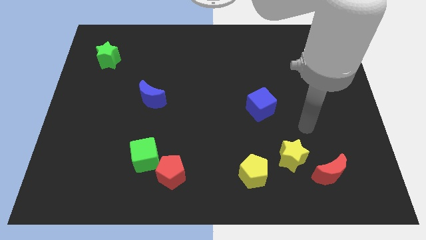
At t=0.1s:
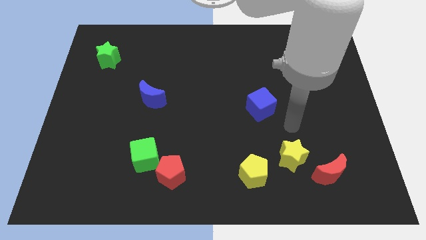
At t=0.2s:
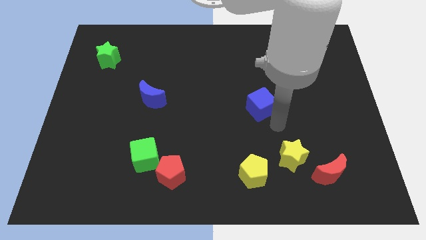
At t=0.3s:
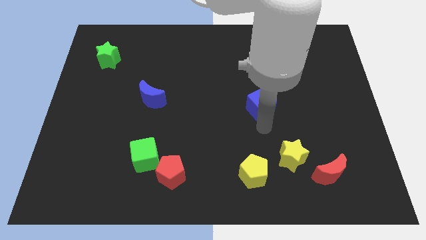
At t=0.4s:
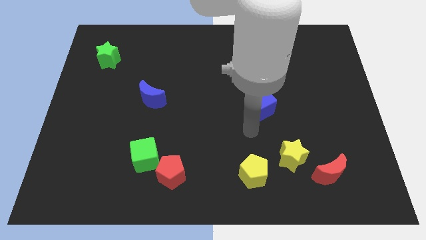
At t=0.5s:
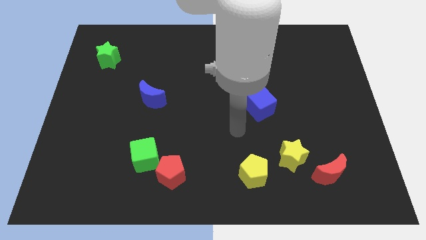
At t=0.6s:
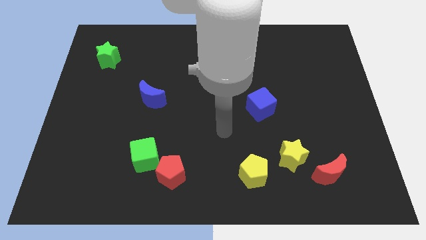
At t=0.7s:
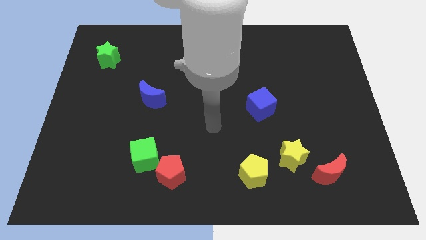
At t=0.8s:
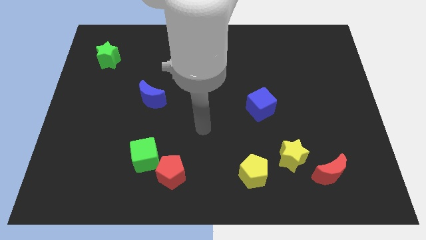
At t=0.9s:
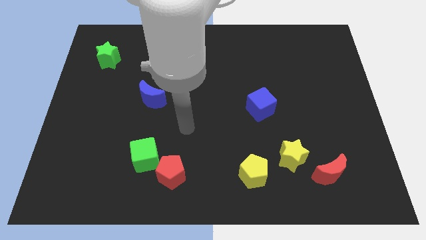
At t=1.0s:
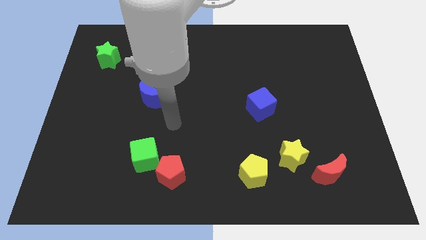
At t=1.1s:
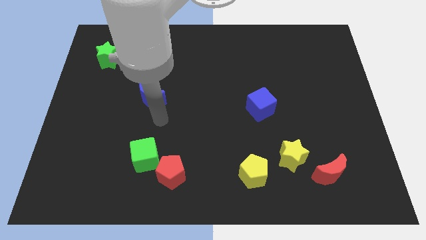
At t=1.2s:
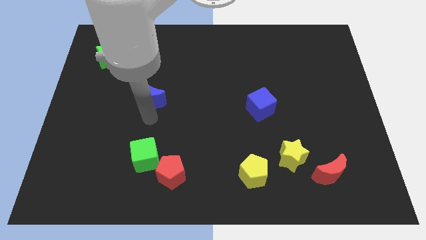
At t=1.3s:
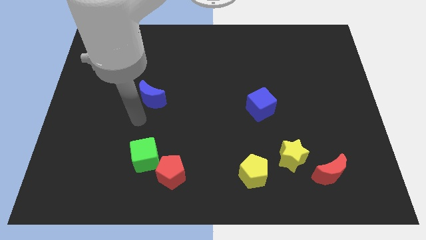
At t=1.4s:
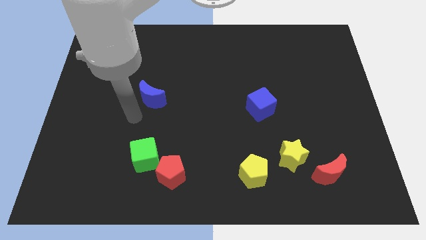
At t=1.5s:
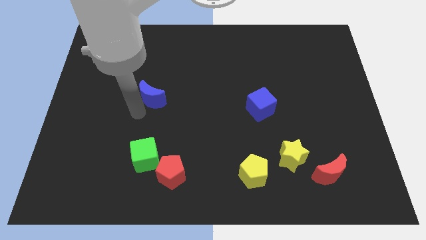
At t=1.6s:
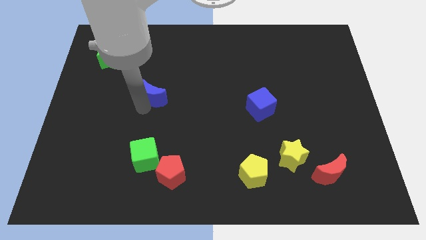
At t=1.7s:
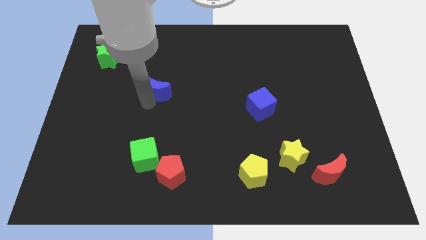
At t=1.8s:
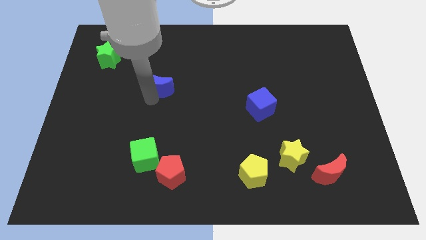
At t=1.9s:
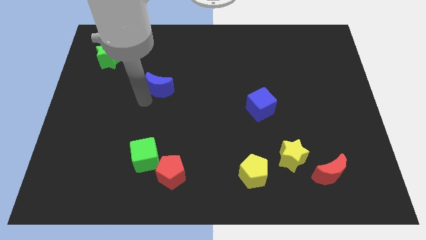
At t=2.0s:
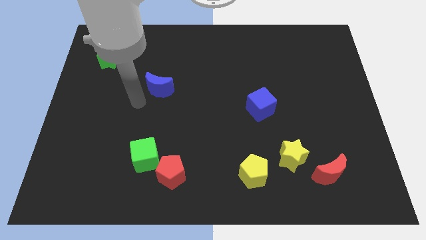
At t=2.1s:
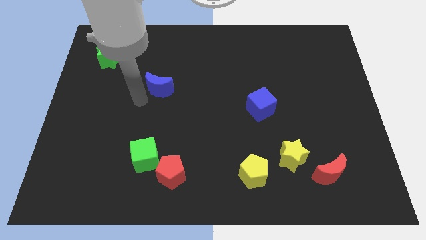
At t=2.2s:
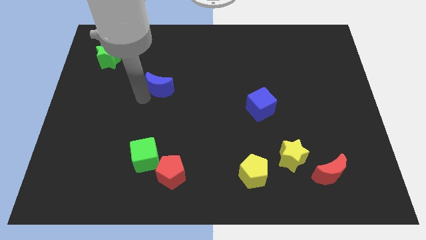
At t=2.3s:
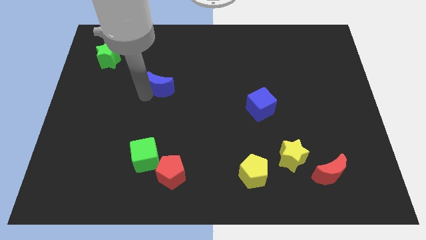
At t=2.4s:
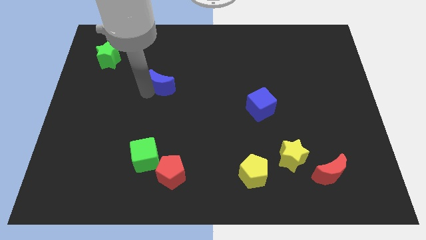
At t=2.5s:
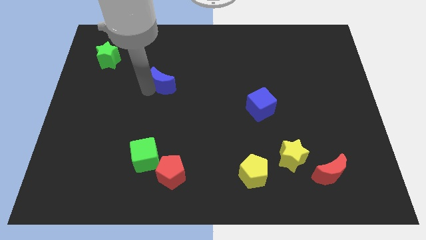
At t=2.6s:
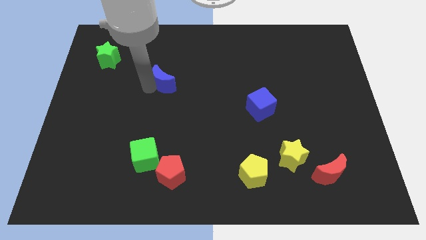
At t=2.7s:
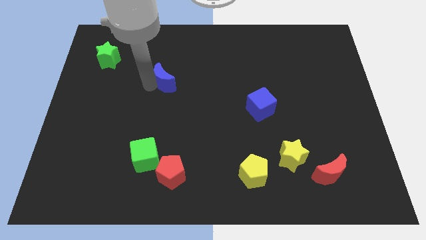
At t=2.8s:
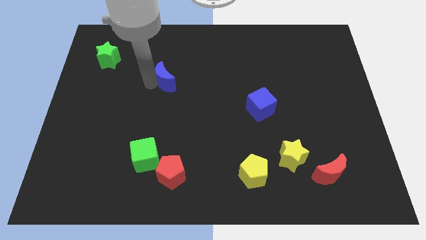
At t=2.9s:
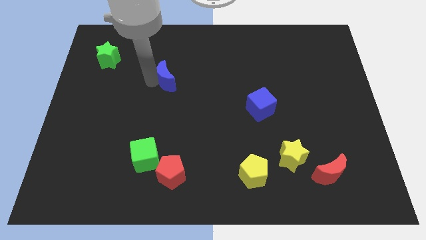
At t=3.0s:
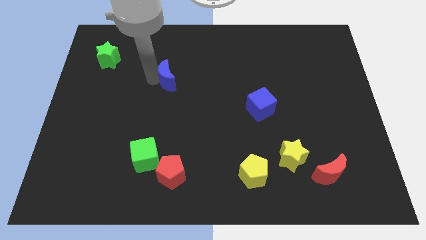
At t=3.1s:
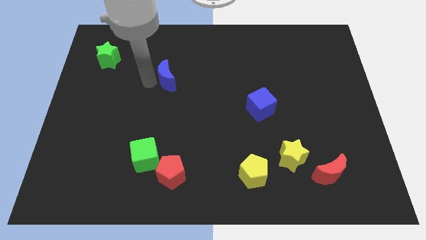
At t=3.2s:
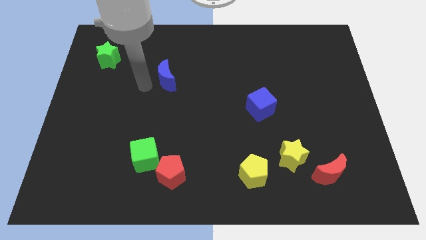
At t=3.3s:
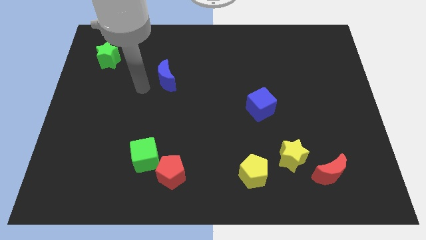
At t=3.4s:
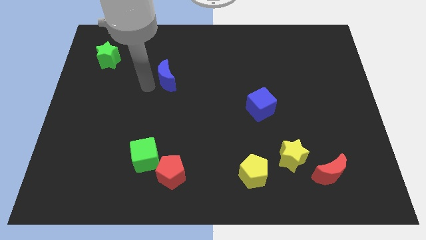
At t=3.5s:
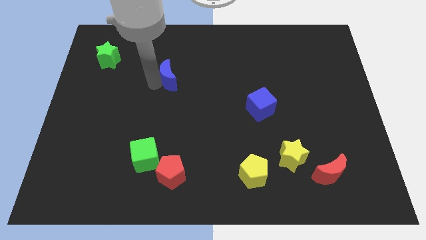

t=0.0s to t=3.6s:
slightly push the blue moon diagonally upwards and right

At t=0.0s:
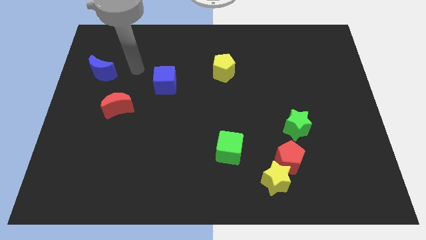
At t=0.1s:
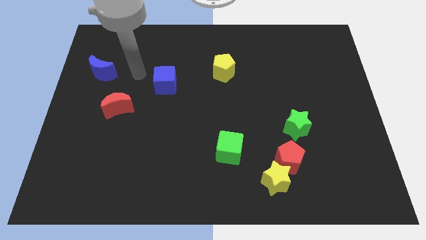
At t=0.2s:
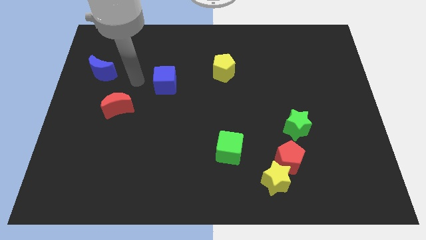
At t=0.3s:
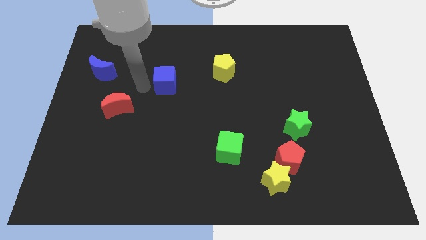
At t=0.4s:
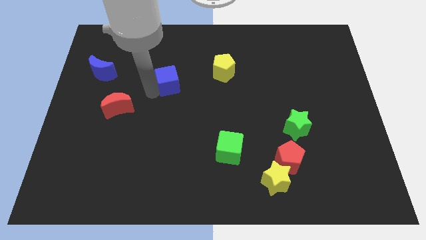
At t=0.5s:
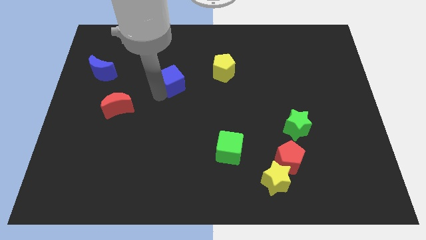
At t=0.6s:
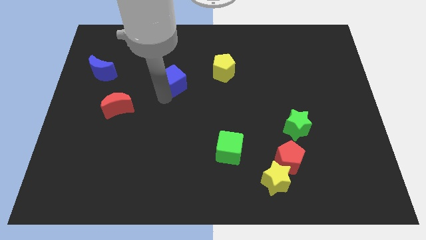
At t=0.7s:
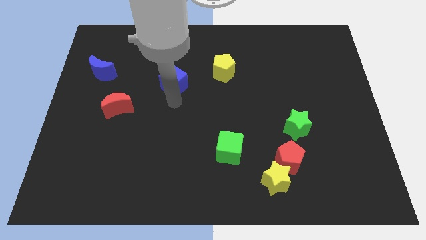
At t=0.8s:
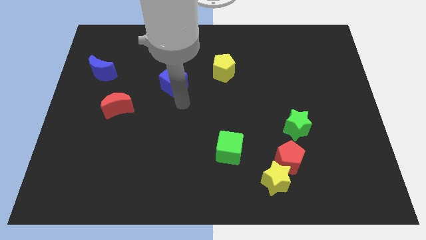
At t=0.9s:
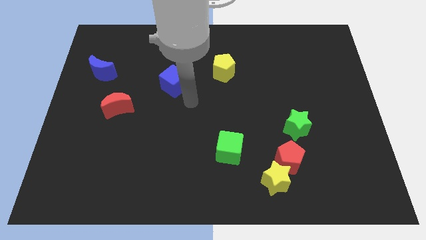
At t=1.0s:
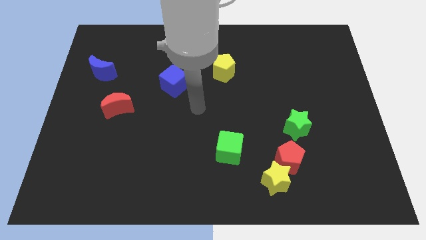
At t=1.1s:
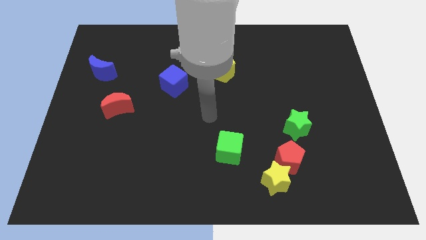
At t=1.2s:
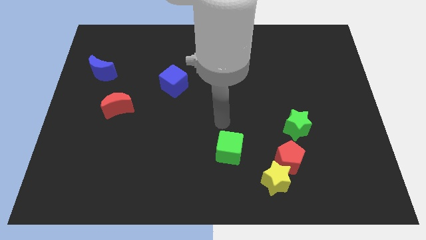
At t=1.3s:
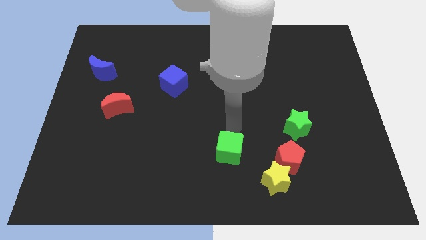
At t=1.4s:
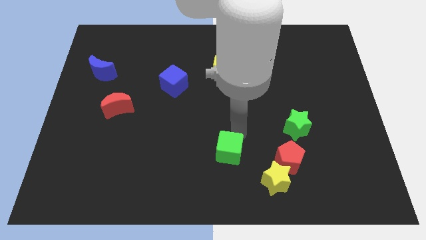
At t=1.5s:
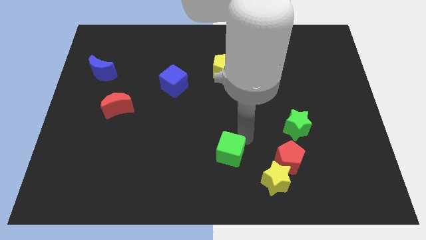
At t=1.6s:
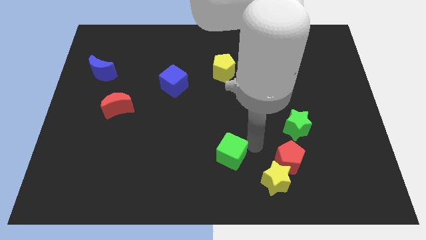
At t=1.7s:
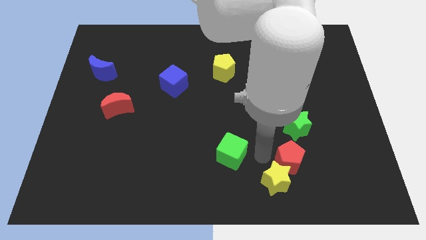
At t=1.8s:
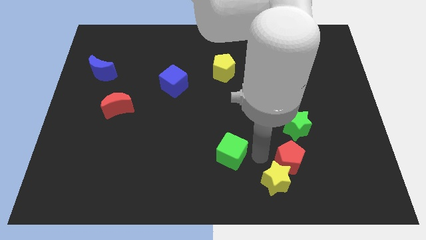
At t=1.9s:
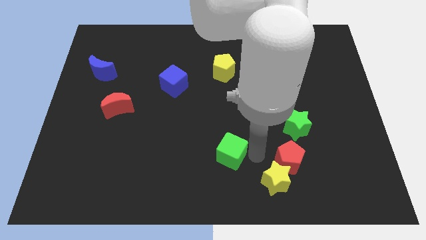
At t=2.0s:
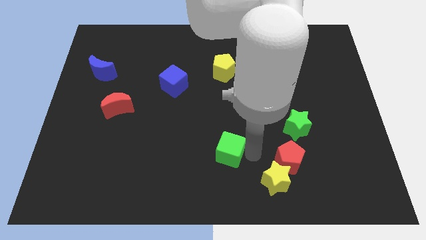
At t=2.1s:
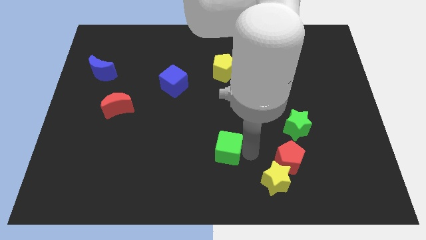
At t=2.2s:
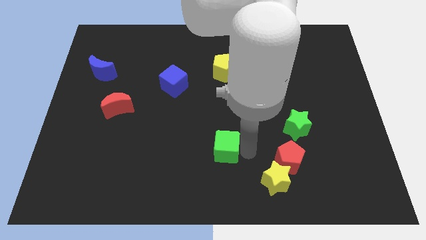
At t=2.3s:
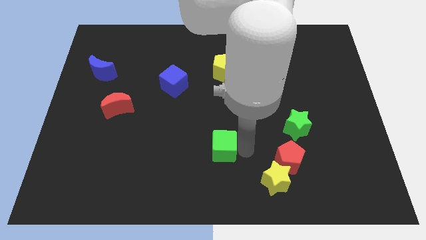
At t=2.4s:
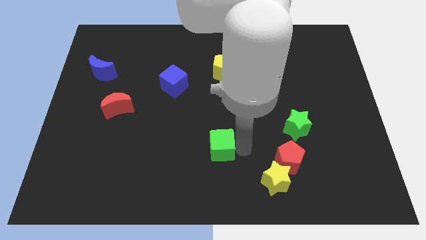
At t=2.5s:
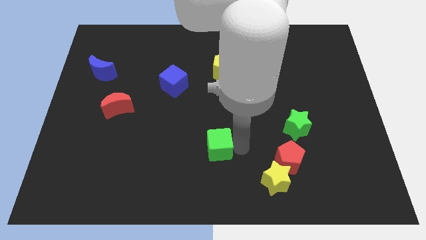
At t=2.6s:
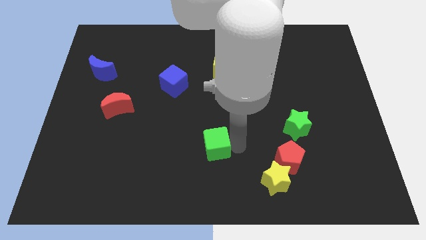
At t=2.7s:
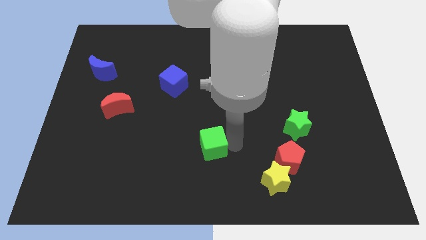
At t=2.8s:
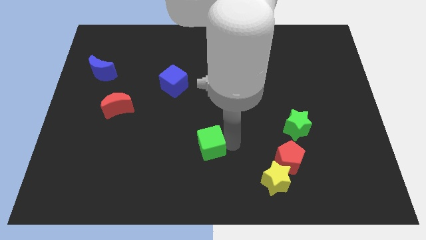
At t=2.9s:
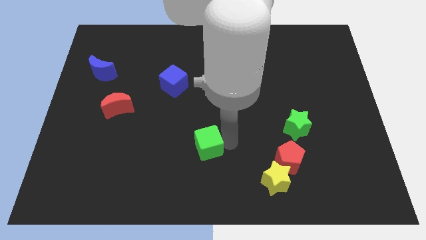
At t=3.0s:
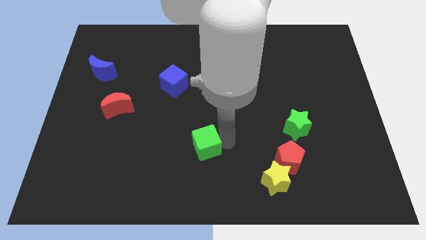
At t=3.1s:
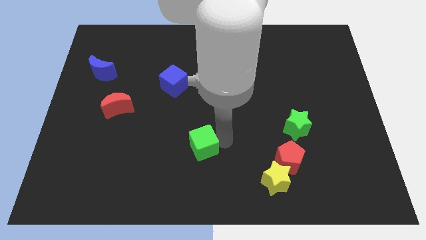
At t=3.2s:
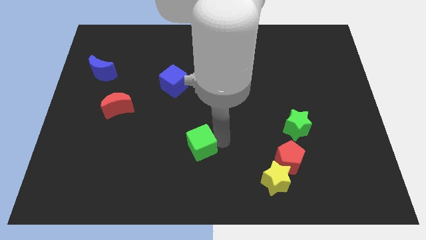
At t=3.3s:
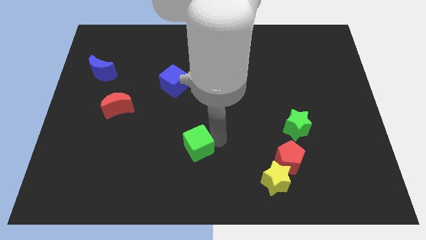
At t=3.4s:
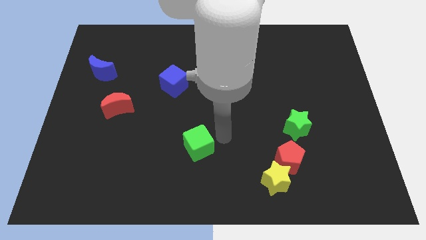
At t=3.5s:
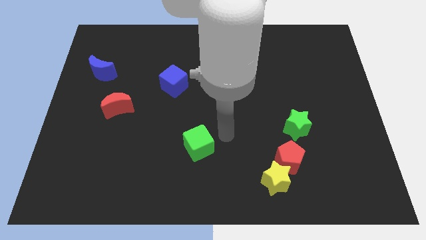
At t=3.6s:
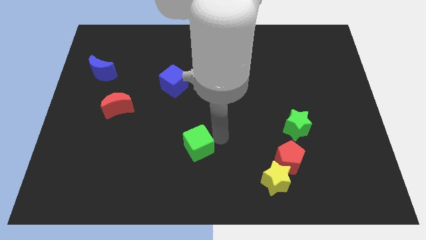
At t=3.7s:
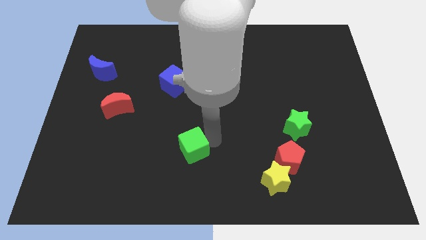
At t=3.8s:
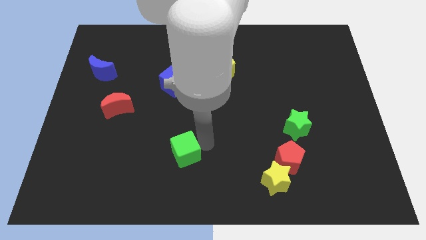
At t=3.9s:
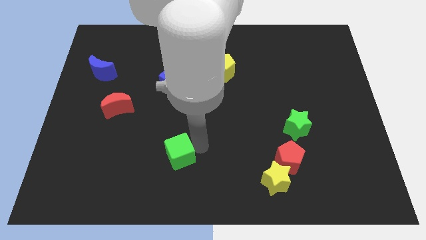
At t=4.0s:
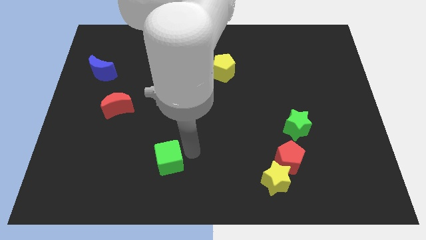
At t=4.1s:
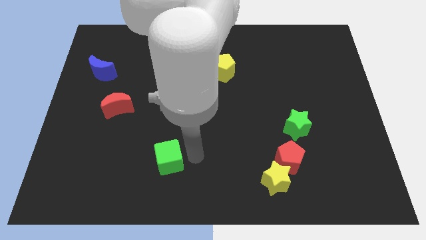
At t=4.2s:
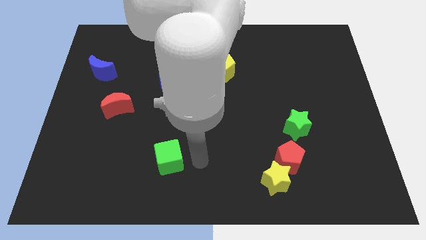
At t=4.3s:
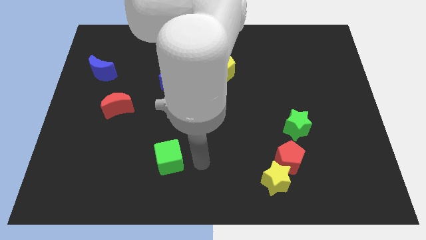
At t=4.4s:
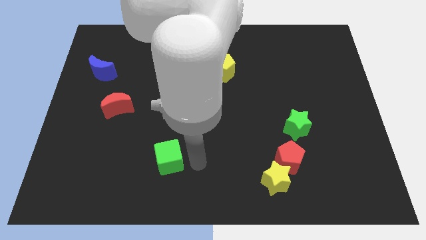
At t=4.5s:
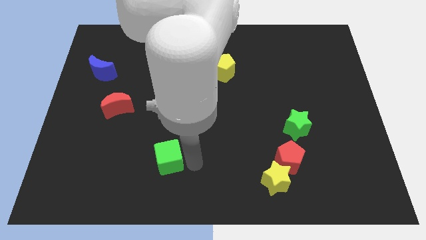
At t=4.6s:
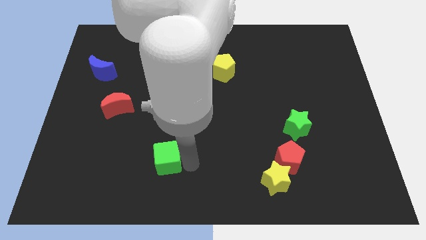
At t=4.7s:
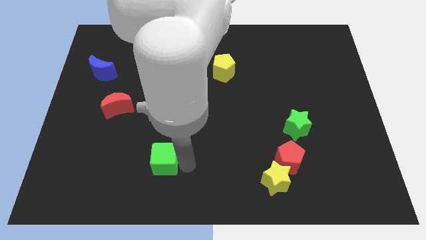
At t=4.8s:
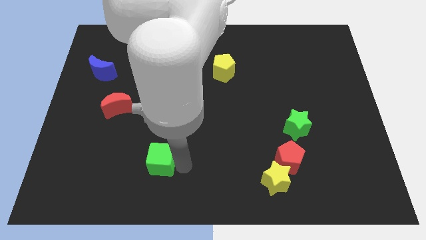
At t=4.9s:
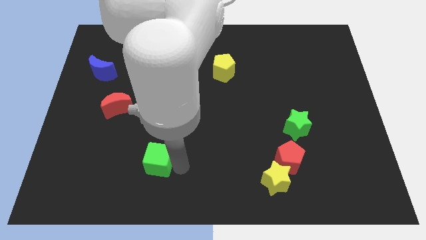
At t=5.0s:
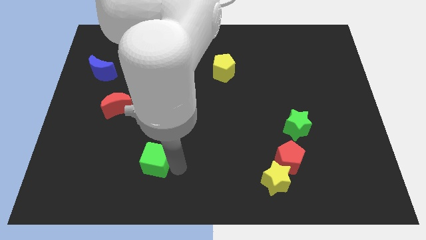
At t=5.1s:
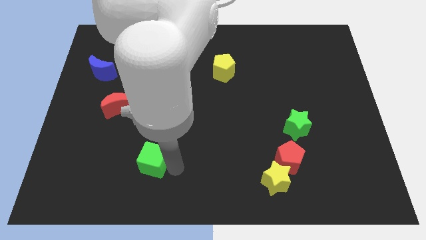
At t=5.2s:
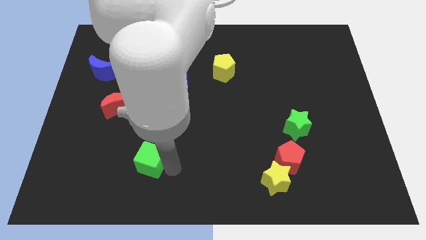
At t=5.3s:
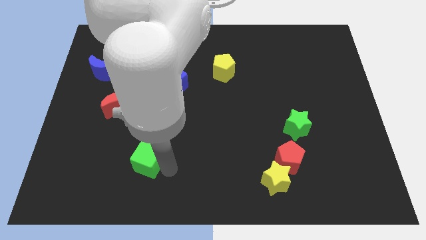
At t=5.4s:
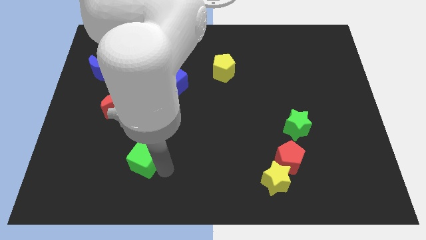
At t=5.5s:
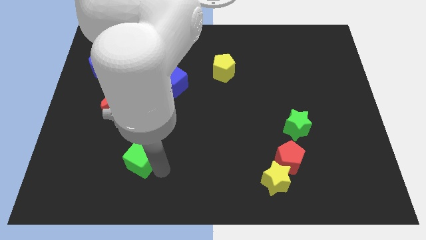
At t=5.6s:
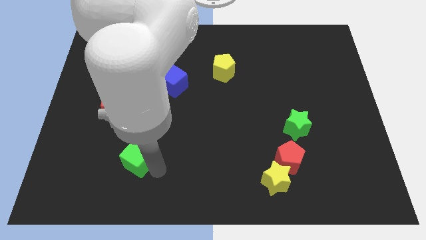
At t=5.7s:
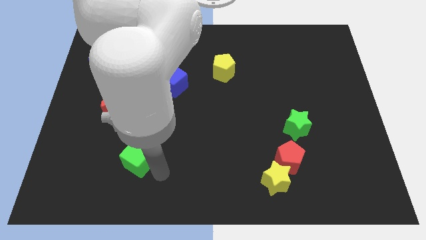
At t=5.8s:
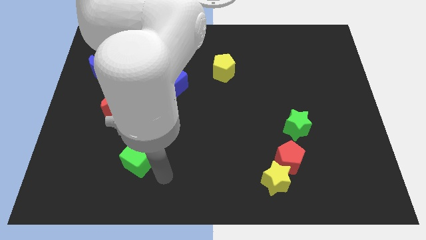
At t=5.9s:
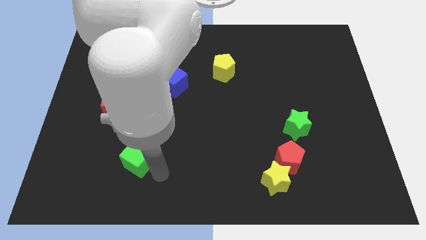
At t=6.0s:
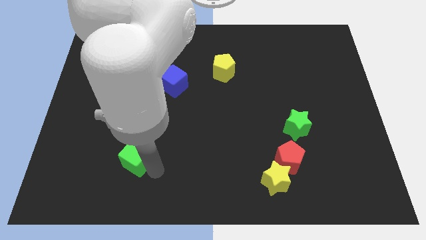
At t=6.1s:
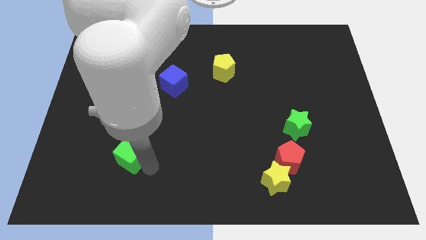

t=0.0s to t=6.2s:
move the green cube left
